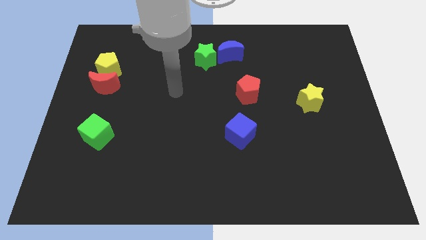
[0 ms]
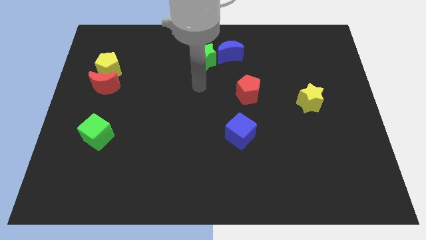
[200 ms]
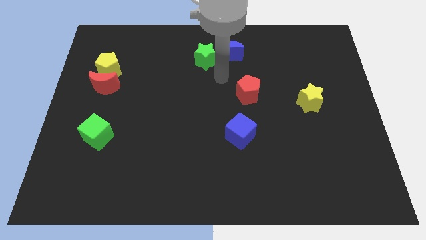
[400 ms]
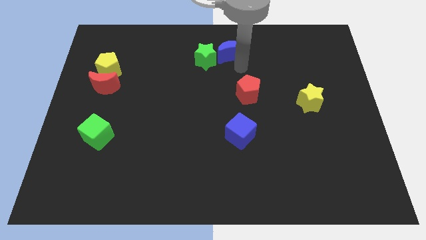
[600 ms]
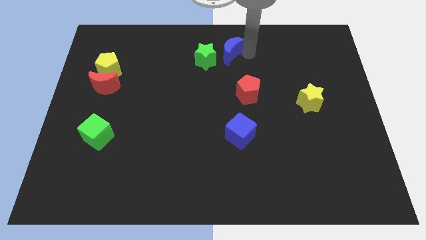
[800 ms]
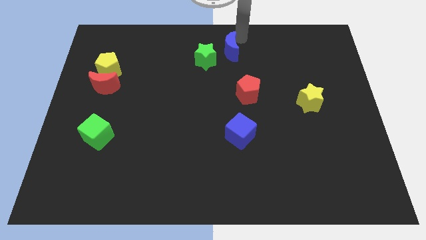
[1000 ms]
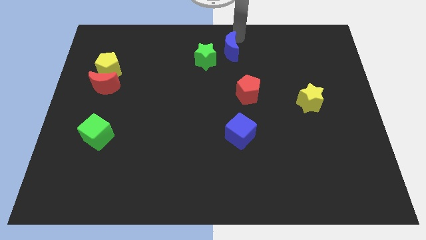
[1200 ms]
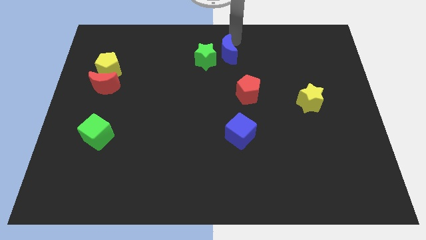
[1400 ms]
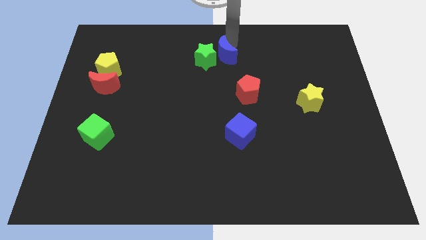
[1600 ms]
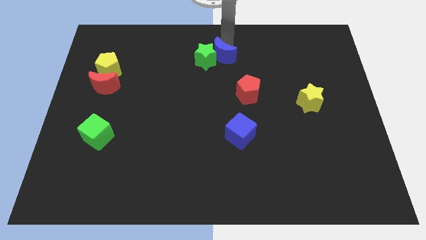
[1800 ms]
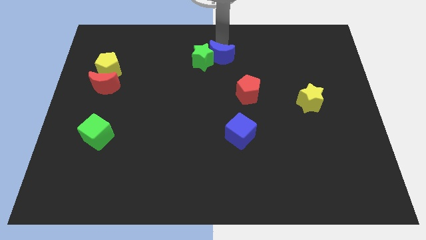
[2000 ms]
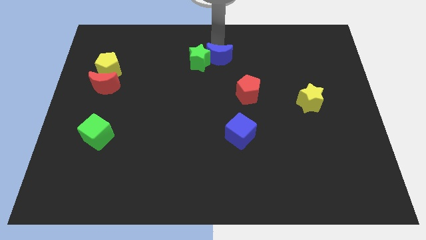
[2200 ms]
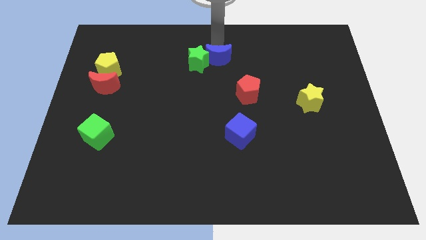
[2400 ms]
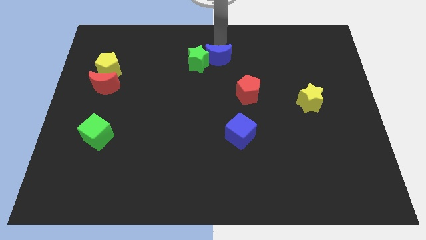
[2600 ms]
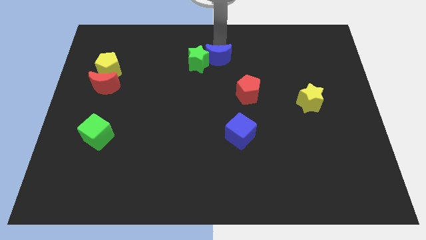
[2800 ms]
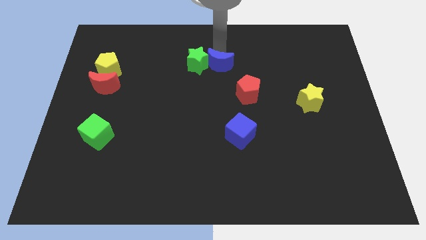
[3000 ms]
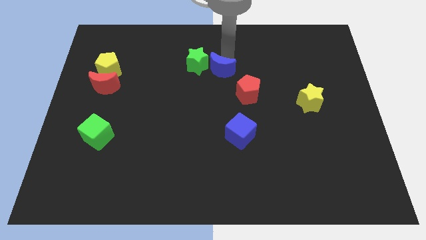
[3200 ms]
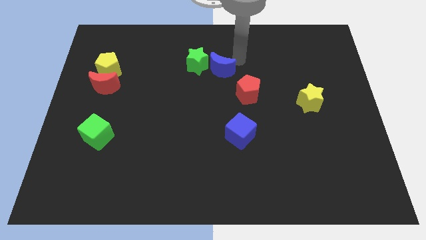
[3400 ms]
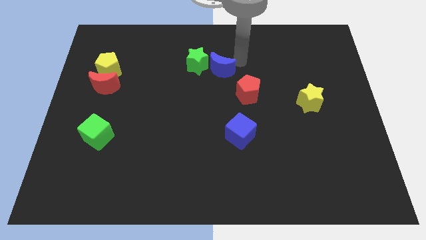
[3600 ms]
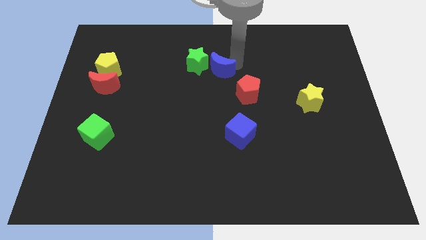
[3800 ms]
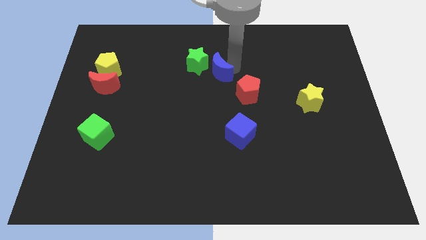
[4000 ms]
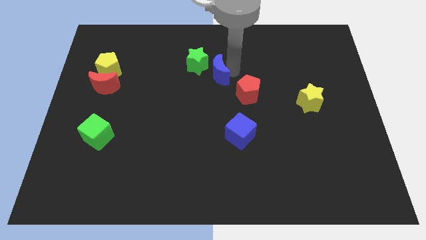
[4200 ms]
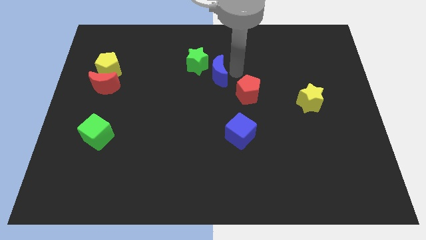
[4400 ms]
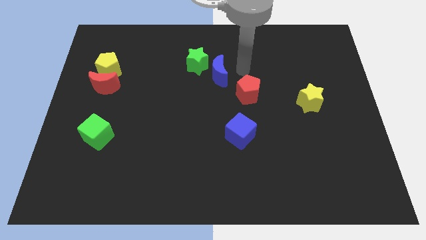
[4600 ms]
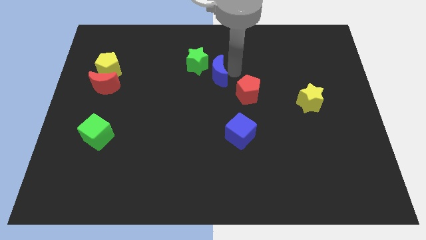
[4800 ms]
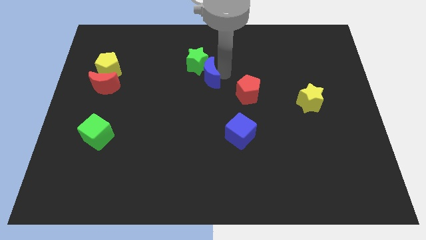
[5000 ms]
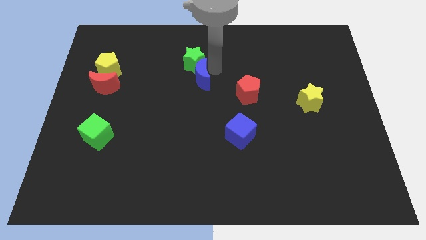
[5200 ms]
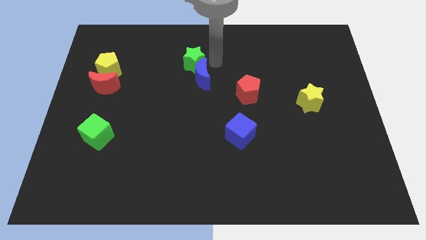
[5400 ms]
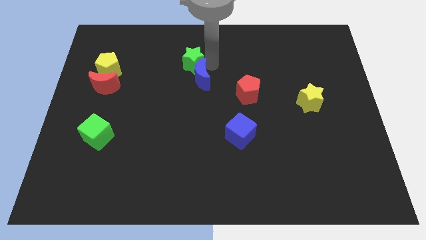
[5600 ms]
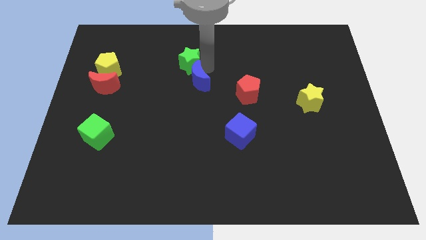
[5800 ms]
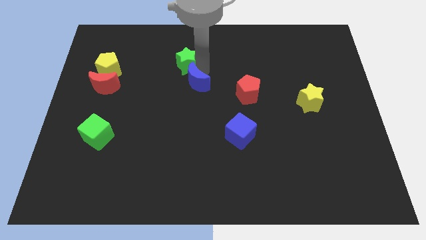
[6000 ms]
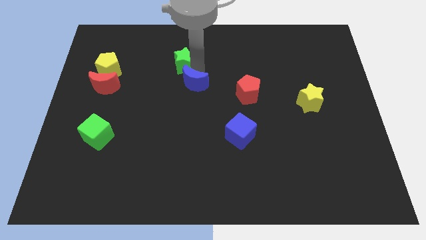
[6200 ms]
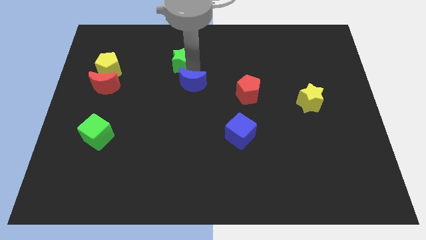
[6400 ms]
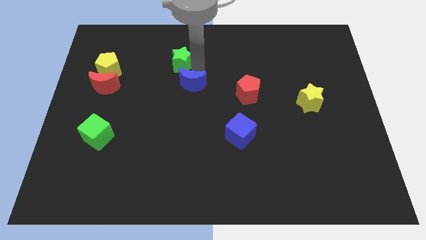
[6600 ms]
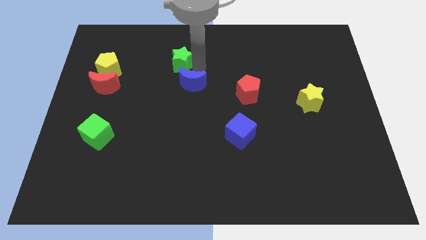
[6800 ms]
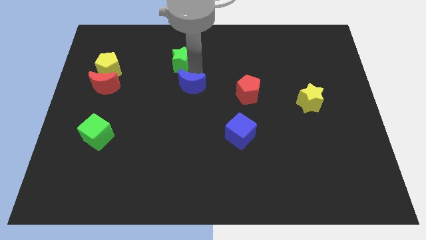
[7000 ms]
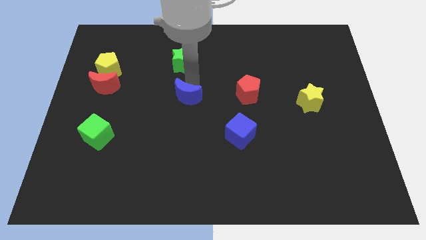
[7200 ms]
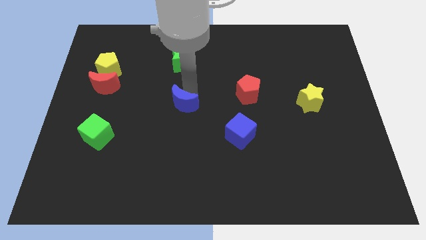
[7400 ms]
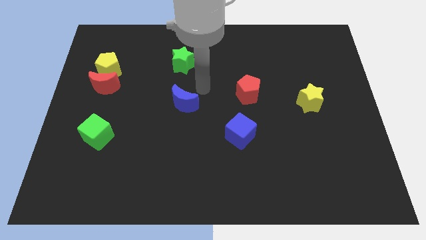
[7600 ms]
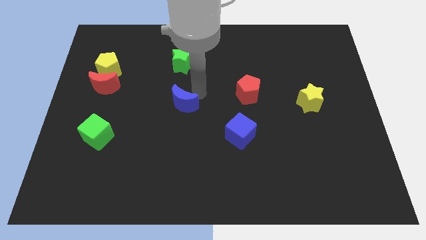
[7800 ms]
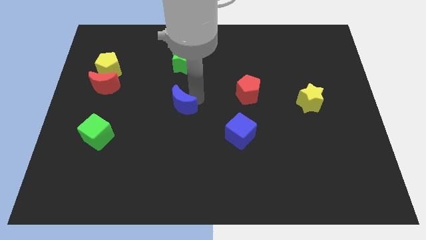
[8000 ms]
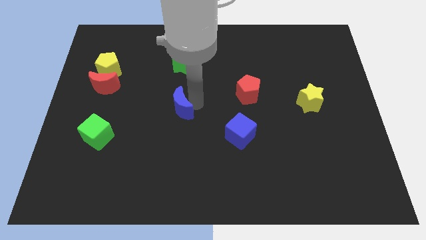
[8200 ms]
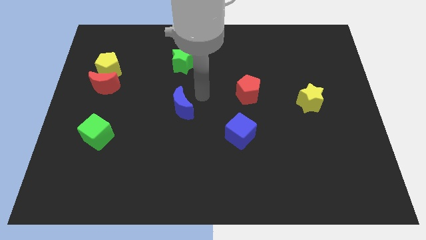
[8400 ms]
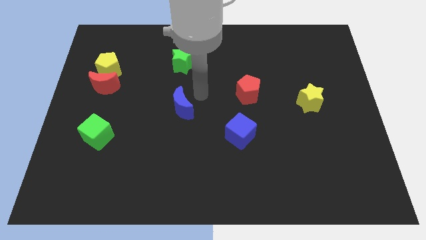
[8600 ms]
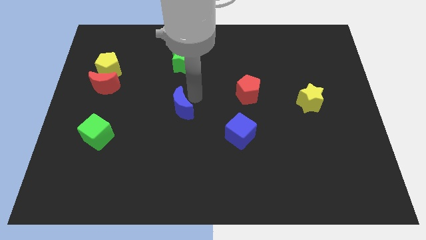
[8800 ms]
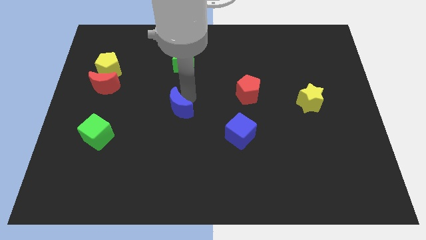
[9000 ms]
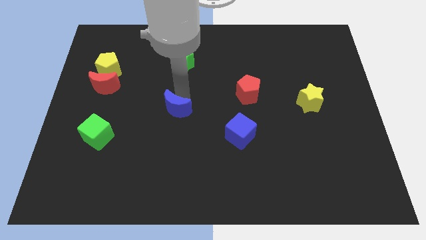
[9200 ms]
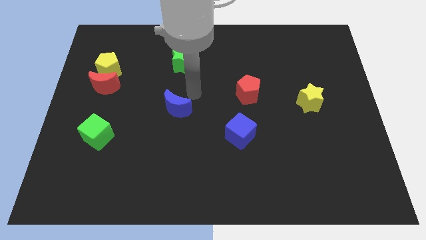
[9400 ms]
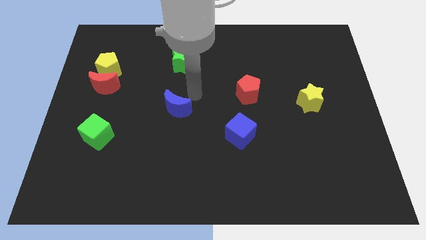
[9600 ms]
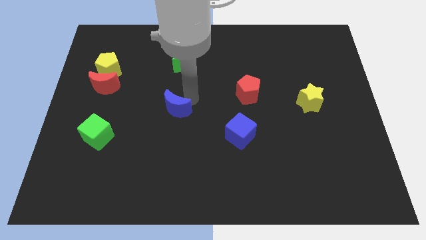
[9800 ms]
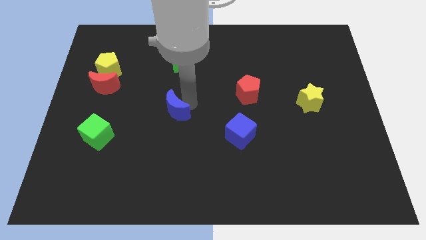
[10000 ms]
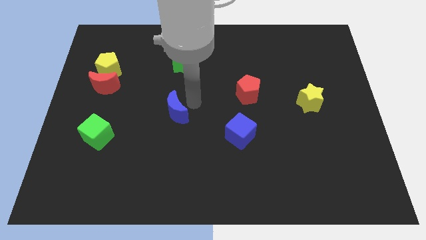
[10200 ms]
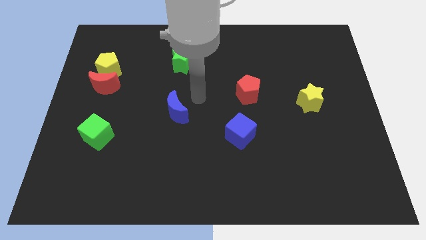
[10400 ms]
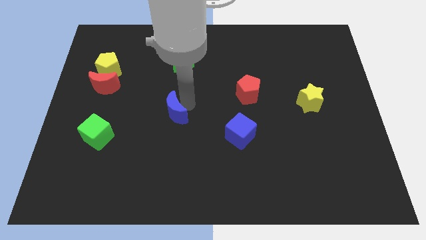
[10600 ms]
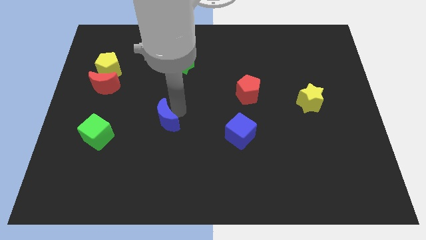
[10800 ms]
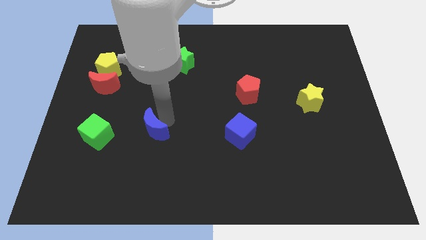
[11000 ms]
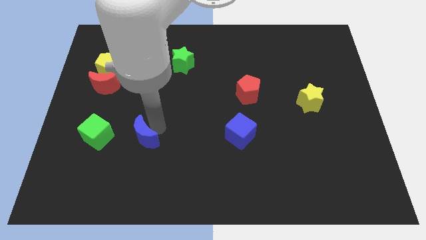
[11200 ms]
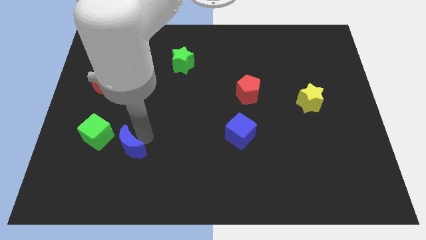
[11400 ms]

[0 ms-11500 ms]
push the blue moon diagonally down and to the right of the green cube
